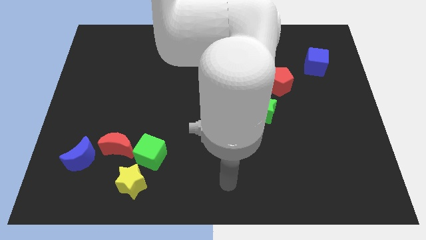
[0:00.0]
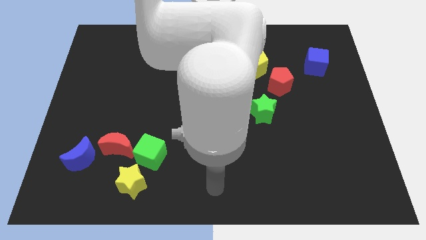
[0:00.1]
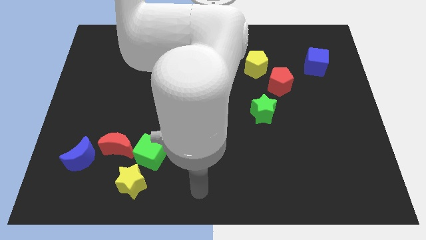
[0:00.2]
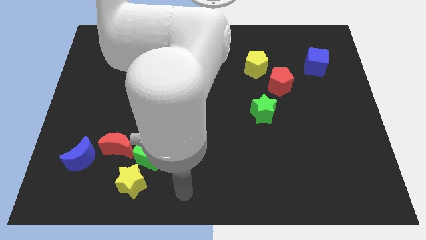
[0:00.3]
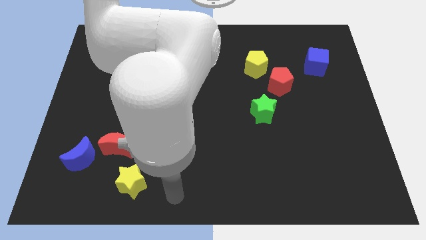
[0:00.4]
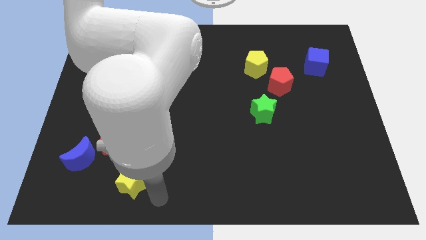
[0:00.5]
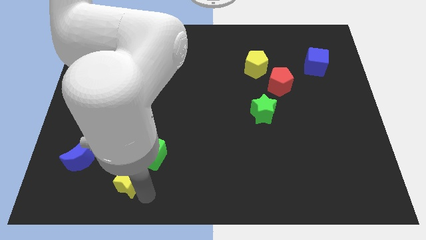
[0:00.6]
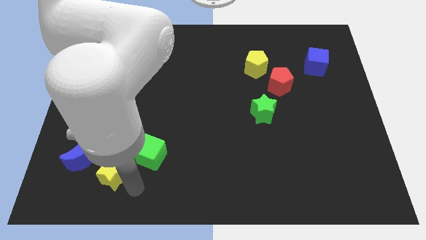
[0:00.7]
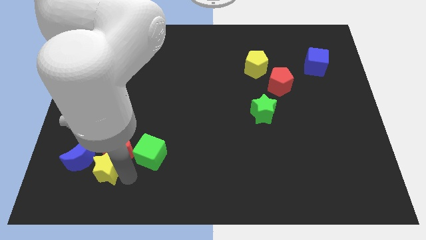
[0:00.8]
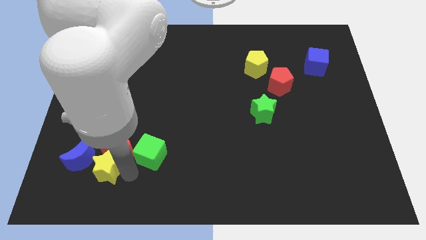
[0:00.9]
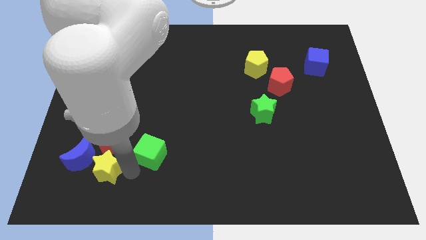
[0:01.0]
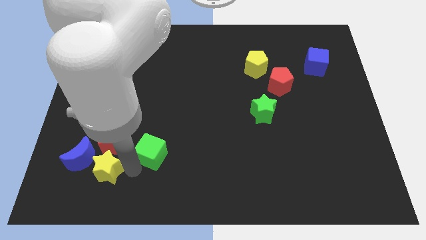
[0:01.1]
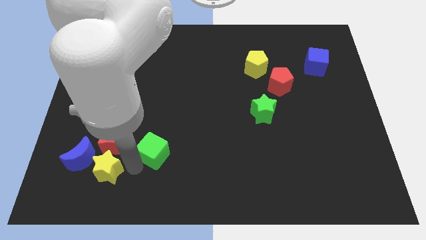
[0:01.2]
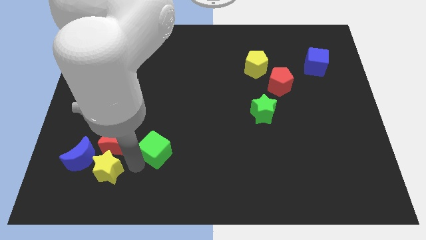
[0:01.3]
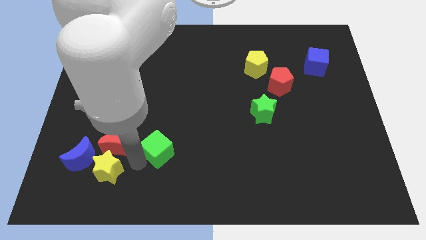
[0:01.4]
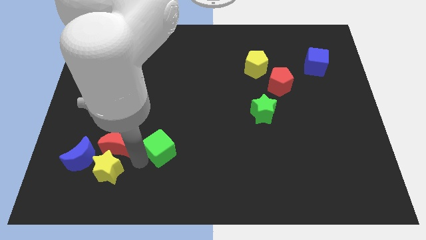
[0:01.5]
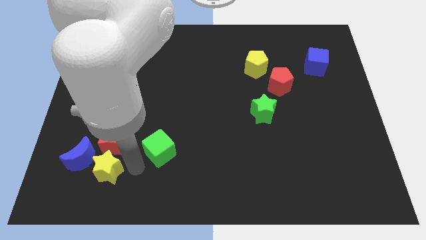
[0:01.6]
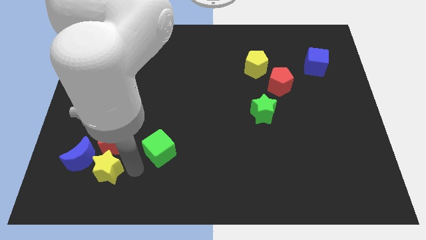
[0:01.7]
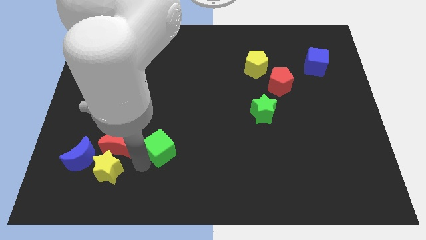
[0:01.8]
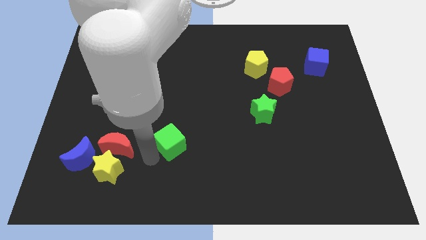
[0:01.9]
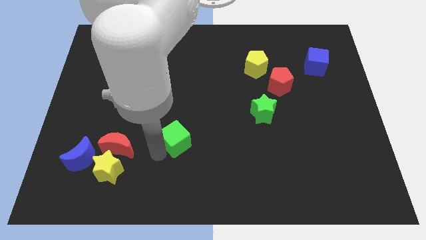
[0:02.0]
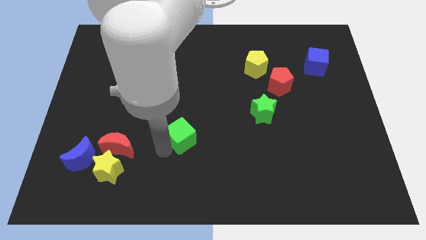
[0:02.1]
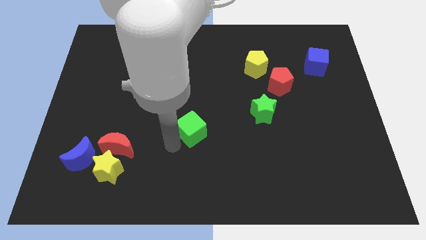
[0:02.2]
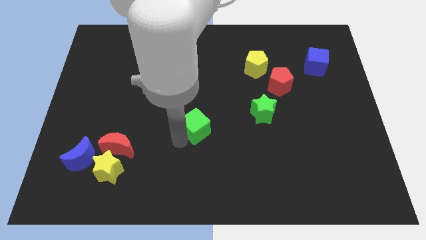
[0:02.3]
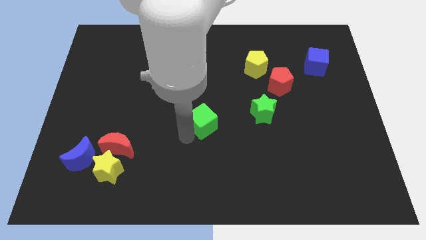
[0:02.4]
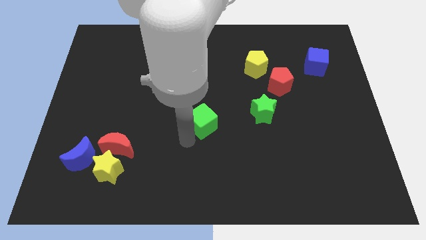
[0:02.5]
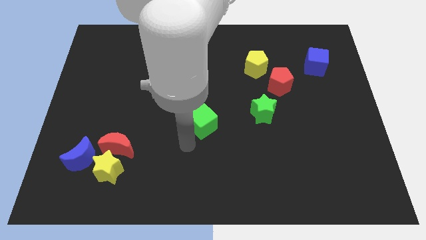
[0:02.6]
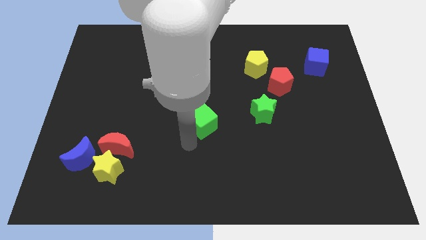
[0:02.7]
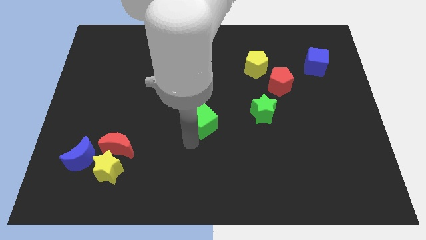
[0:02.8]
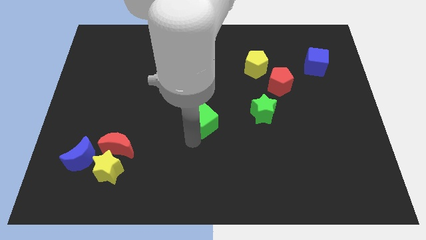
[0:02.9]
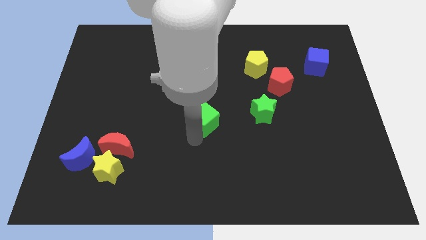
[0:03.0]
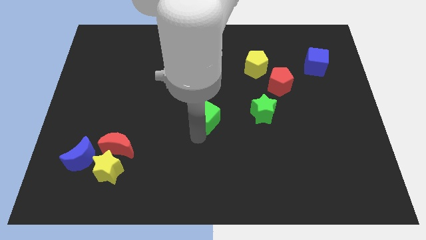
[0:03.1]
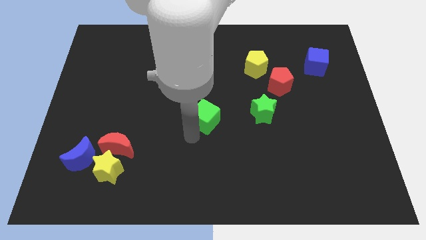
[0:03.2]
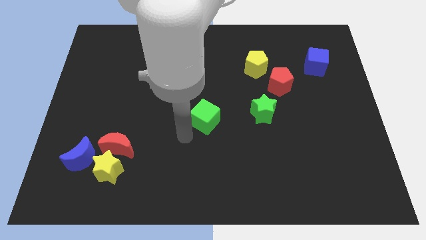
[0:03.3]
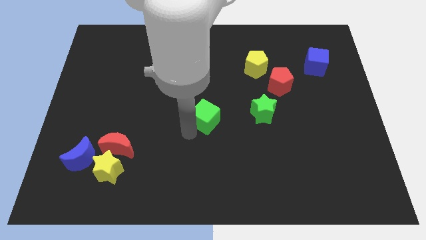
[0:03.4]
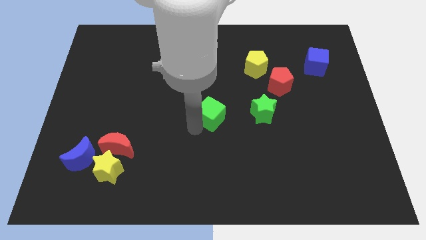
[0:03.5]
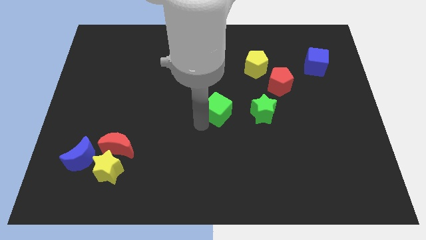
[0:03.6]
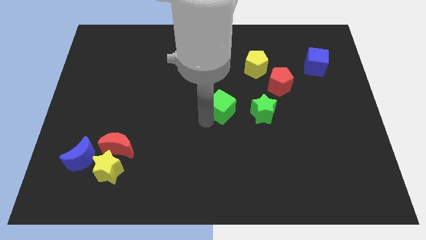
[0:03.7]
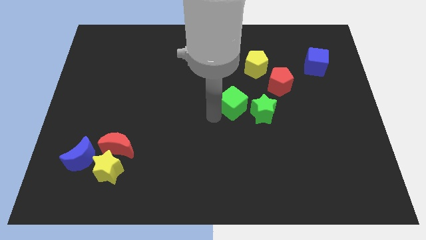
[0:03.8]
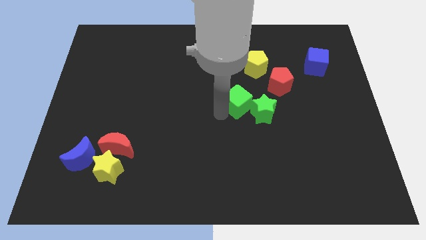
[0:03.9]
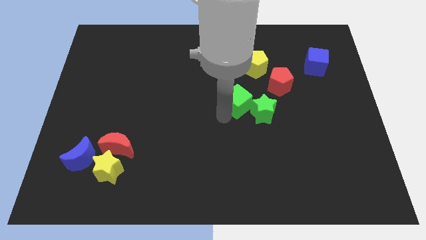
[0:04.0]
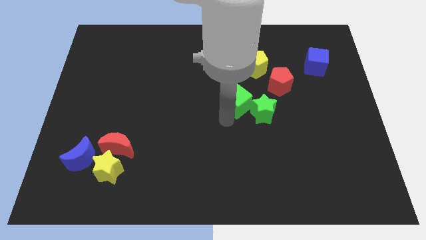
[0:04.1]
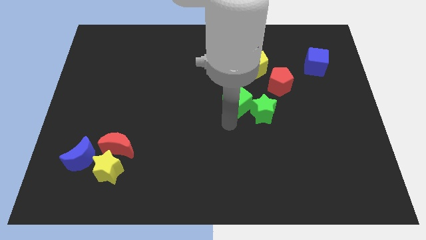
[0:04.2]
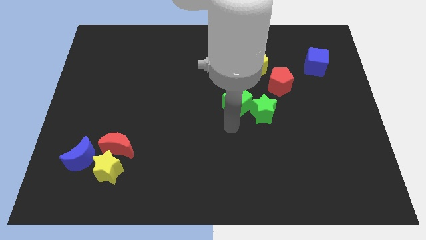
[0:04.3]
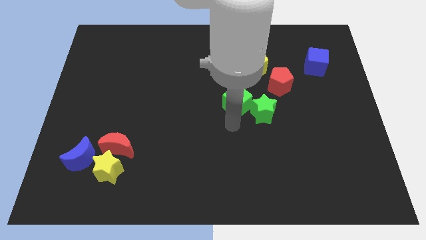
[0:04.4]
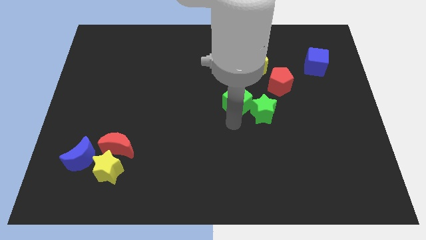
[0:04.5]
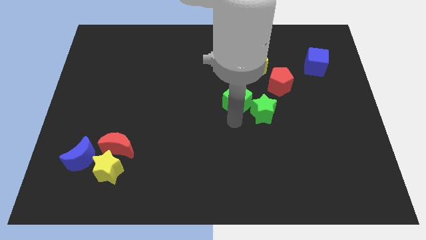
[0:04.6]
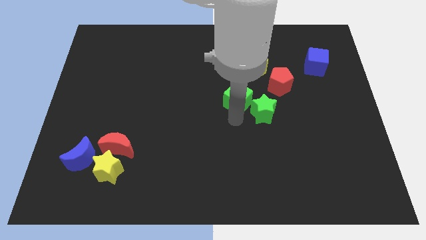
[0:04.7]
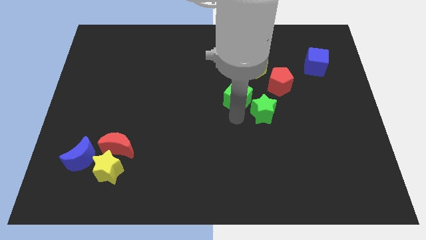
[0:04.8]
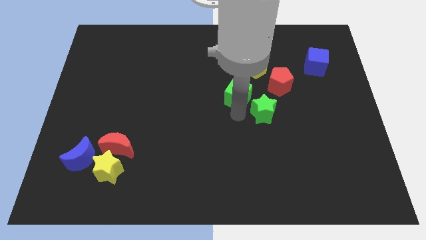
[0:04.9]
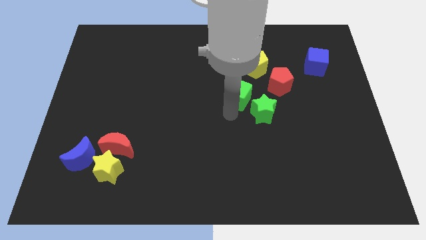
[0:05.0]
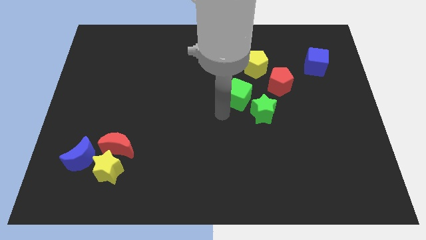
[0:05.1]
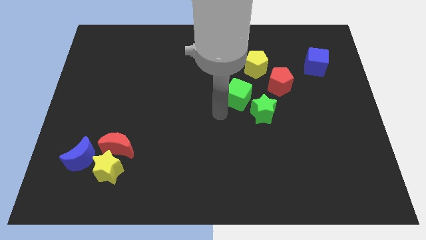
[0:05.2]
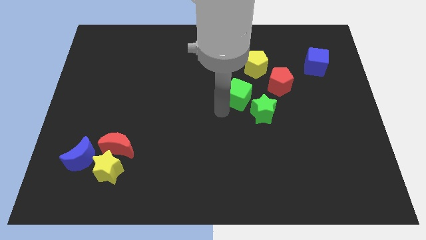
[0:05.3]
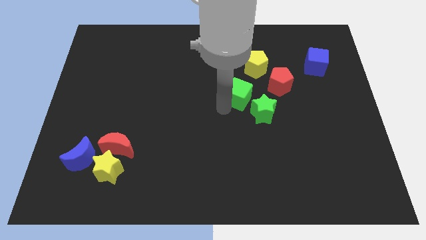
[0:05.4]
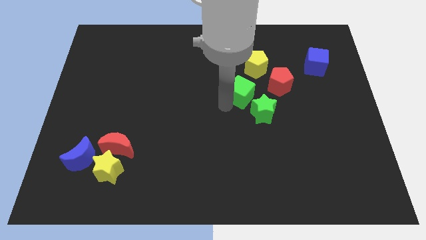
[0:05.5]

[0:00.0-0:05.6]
push the green cube to the top of the green star

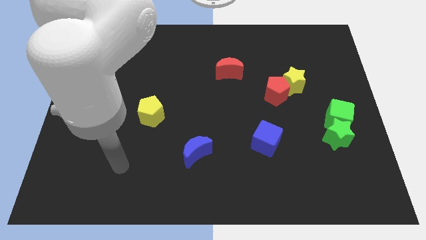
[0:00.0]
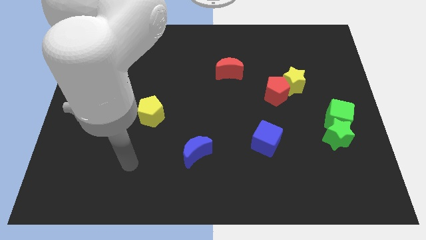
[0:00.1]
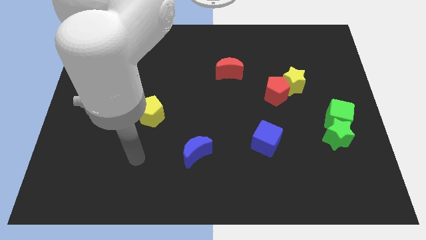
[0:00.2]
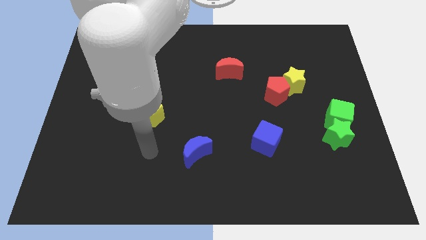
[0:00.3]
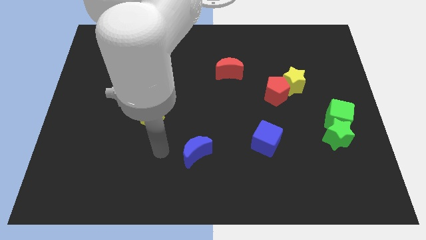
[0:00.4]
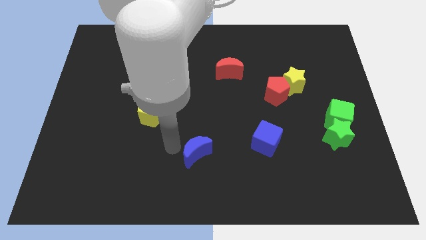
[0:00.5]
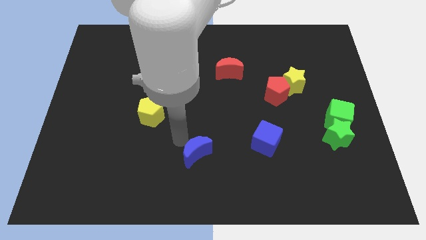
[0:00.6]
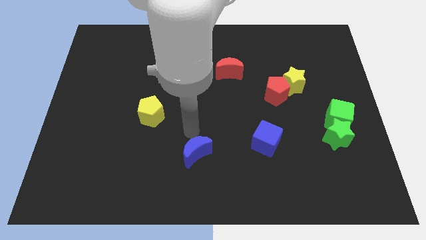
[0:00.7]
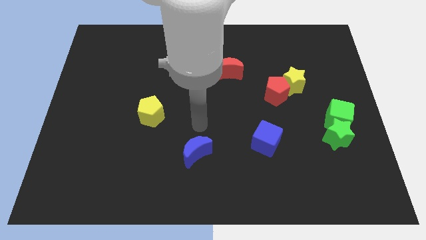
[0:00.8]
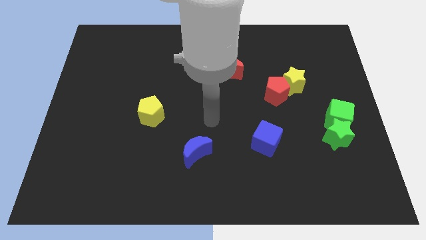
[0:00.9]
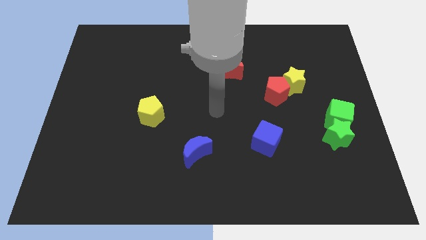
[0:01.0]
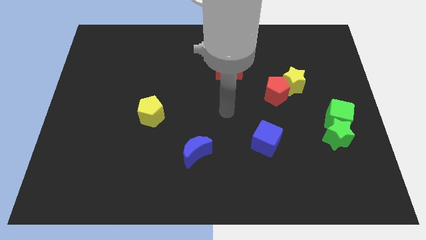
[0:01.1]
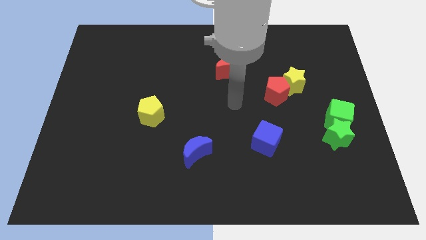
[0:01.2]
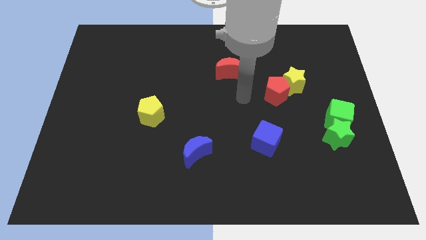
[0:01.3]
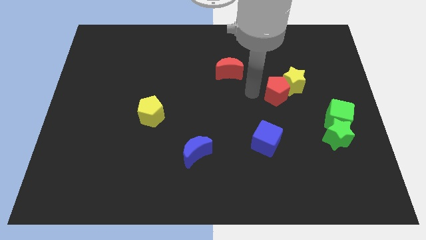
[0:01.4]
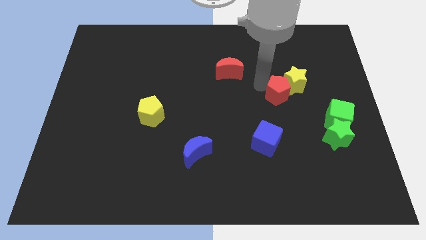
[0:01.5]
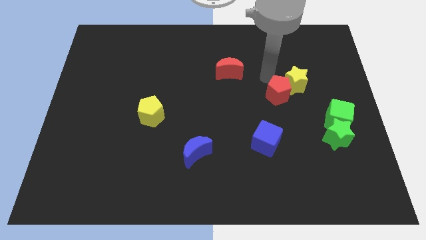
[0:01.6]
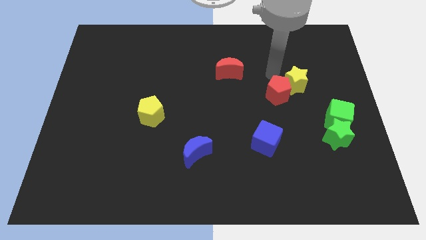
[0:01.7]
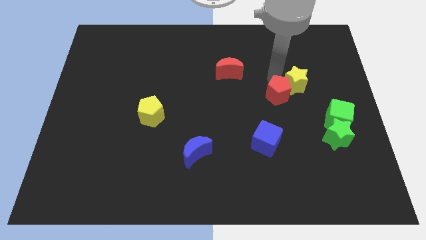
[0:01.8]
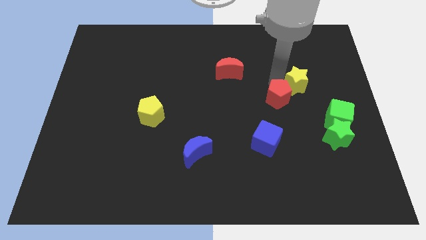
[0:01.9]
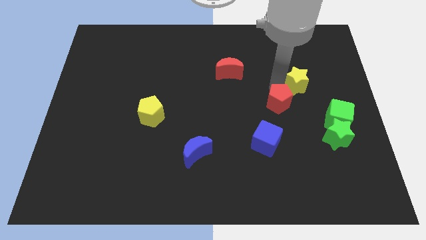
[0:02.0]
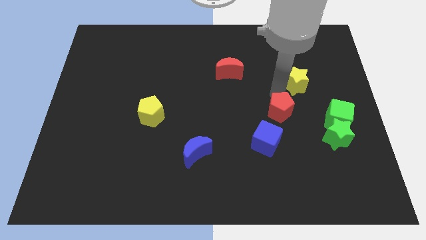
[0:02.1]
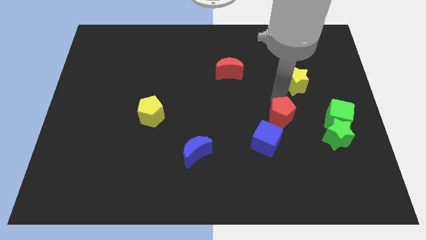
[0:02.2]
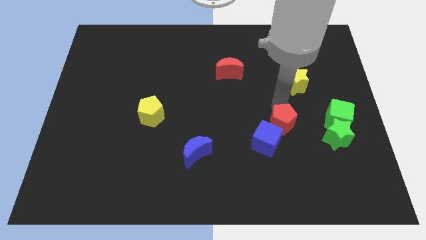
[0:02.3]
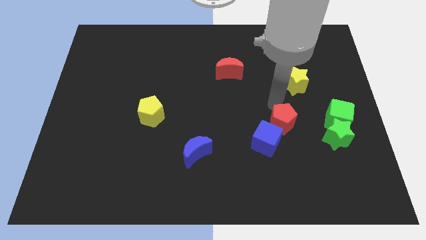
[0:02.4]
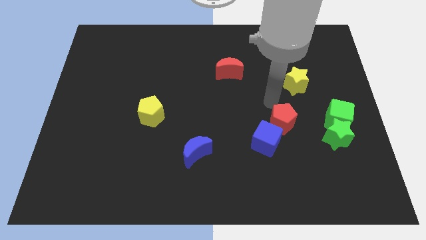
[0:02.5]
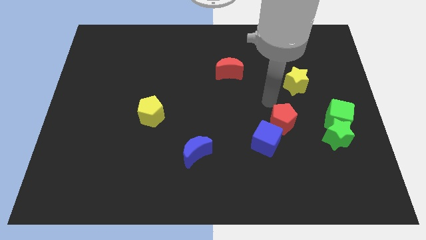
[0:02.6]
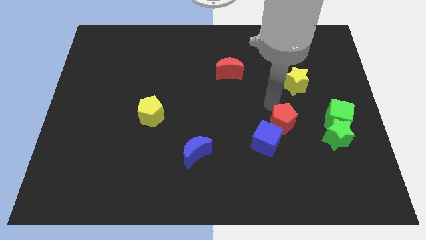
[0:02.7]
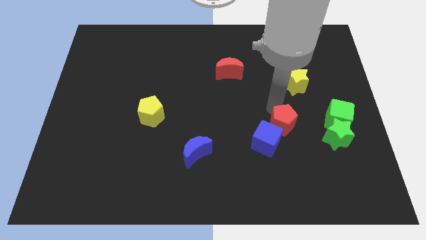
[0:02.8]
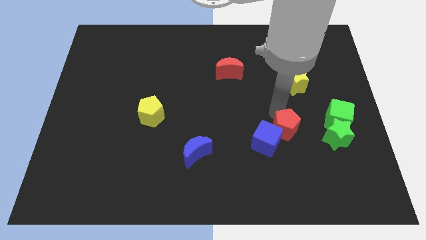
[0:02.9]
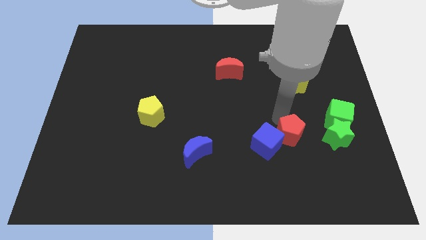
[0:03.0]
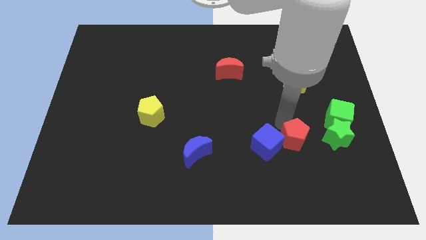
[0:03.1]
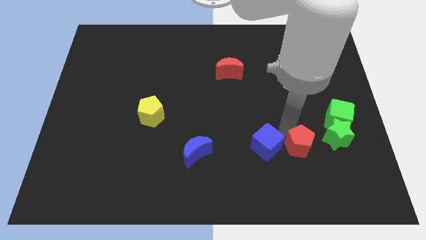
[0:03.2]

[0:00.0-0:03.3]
slide the red pentagon diagonally down and to the left of the green star
